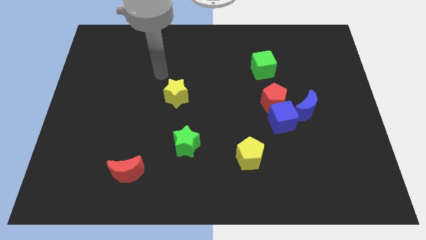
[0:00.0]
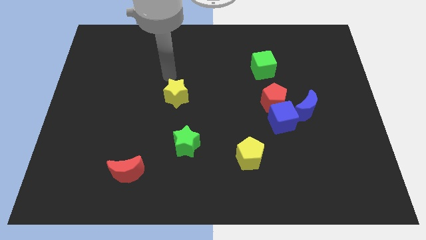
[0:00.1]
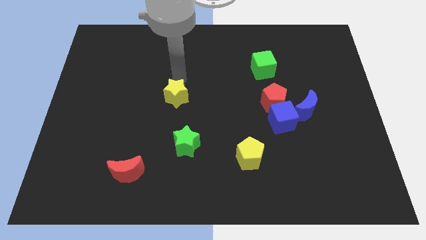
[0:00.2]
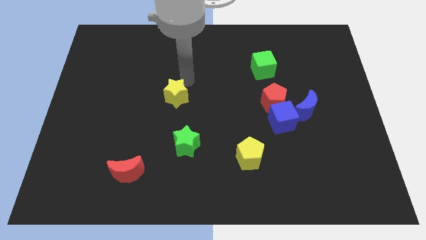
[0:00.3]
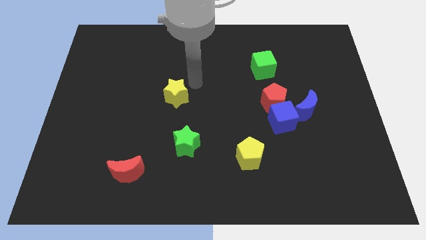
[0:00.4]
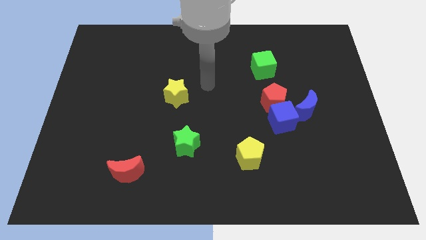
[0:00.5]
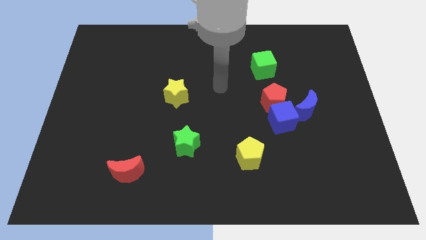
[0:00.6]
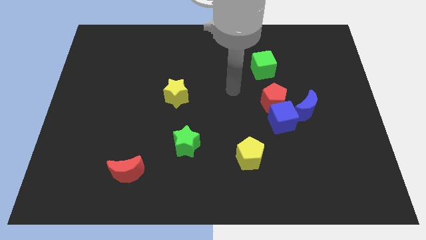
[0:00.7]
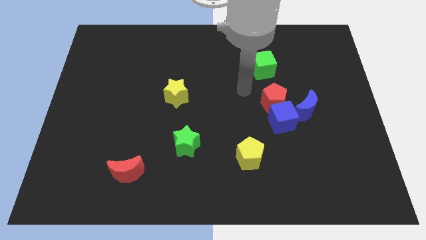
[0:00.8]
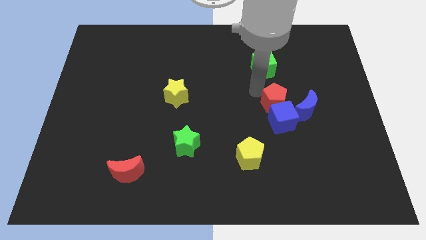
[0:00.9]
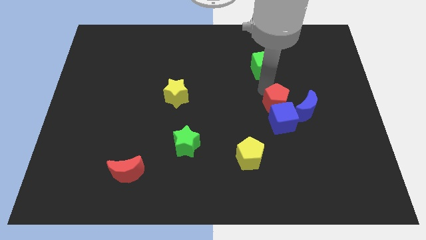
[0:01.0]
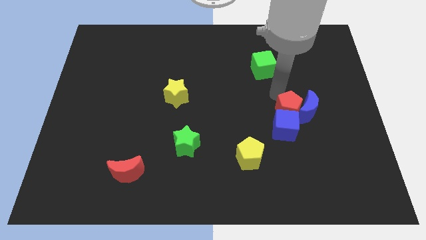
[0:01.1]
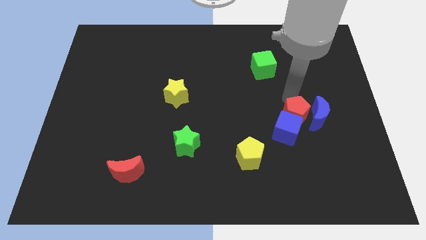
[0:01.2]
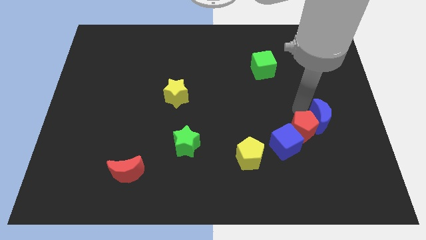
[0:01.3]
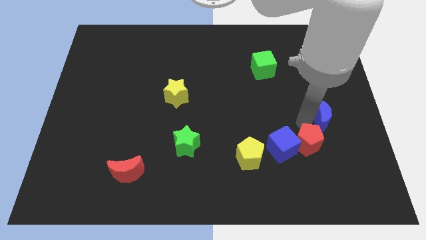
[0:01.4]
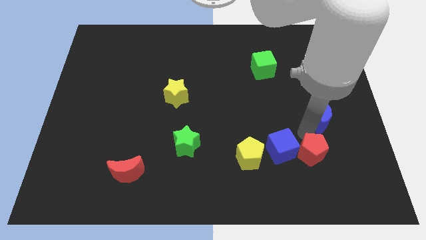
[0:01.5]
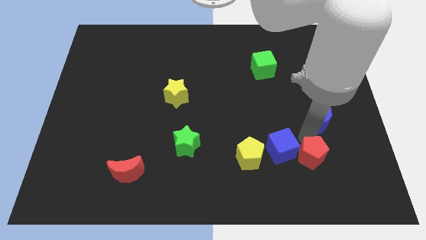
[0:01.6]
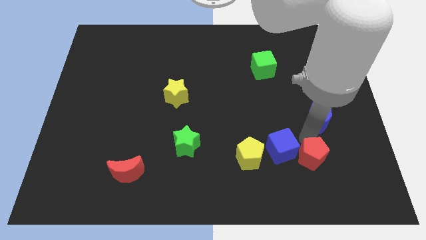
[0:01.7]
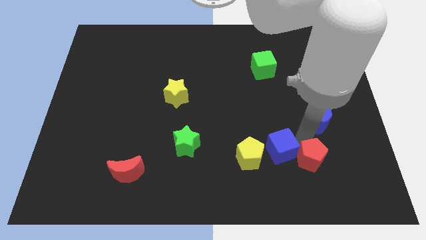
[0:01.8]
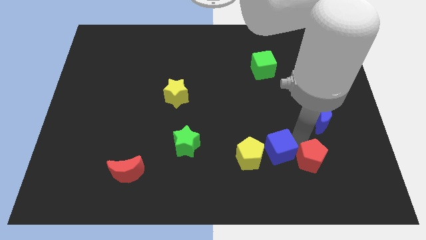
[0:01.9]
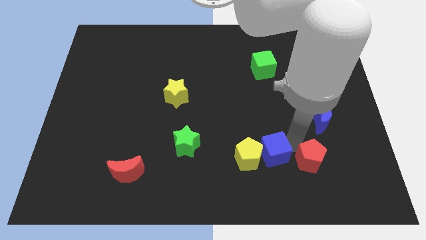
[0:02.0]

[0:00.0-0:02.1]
move the blue cube away from the red pentagon and blue moon

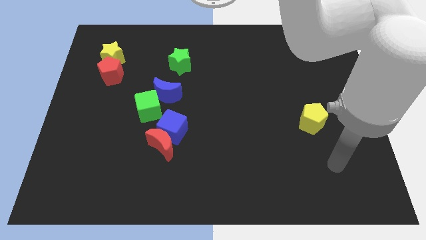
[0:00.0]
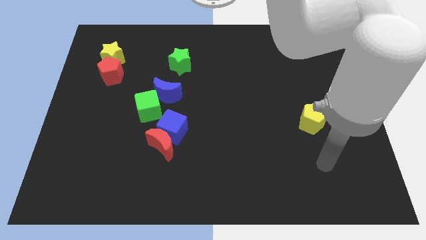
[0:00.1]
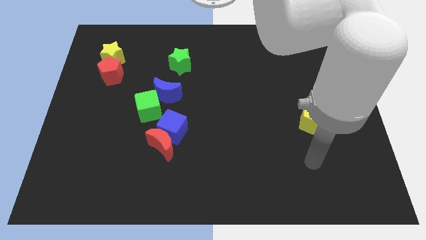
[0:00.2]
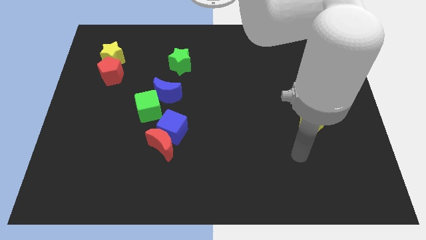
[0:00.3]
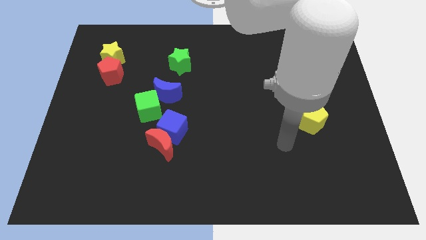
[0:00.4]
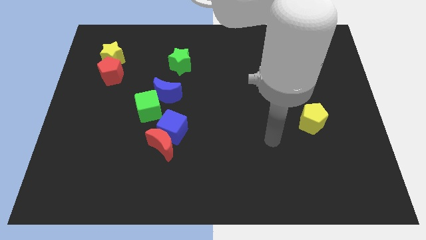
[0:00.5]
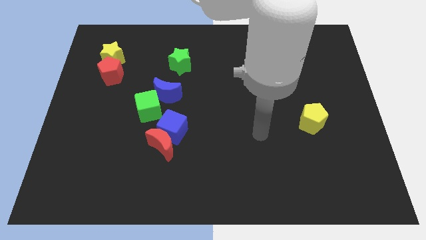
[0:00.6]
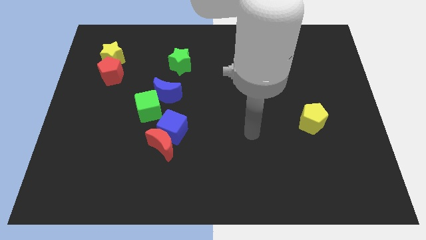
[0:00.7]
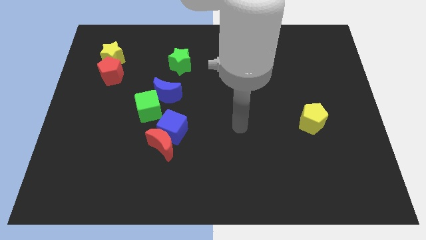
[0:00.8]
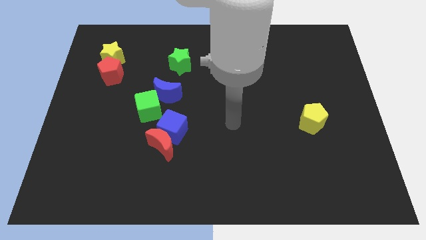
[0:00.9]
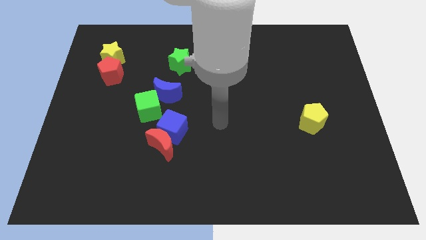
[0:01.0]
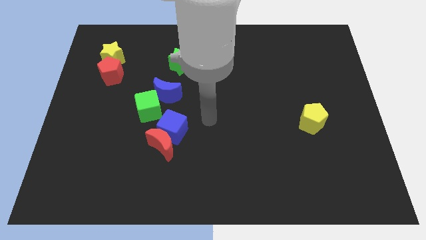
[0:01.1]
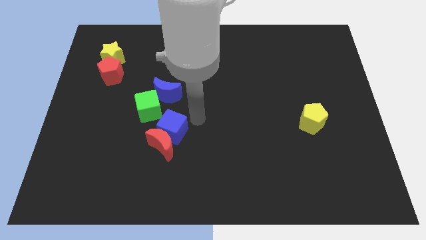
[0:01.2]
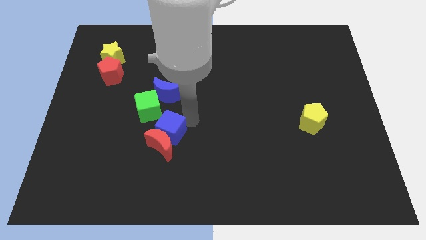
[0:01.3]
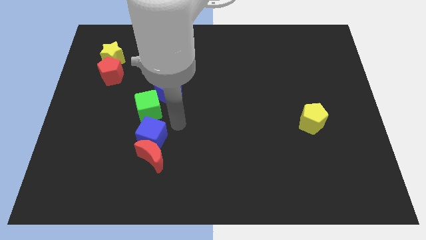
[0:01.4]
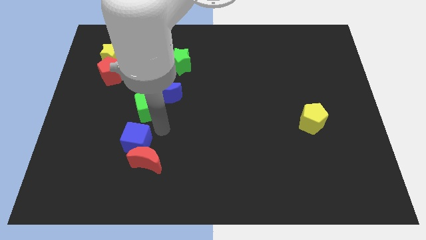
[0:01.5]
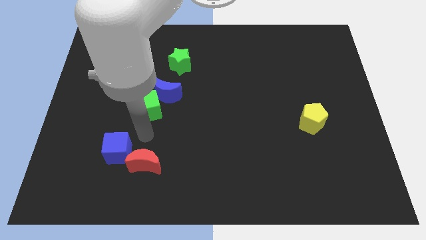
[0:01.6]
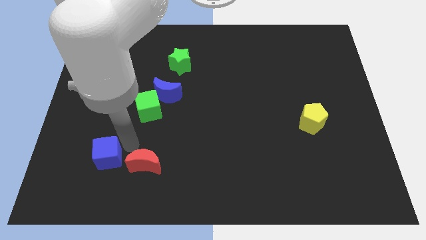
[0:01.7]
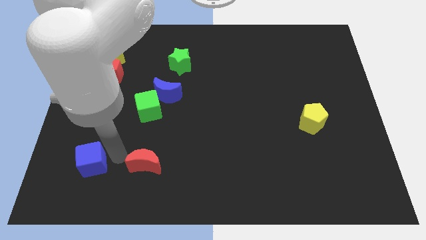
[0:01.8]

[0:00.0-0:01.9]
pull the red moon apart from the blue cube

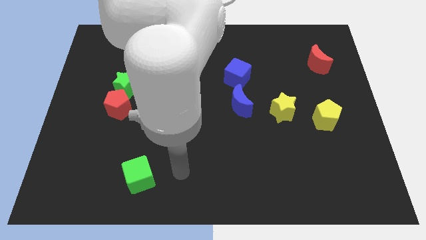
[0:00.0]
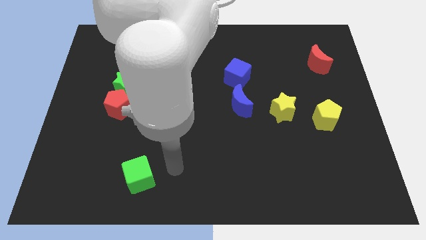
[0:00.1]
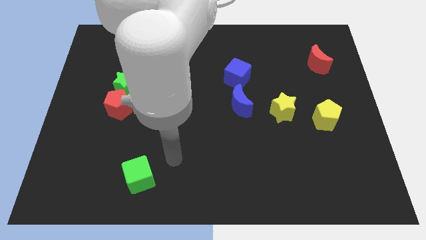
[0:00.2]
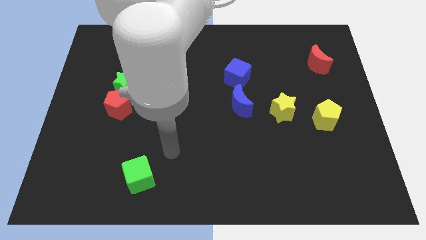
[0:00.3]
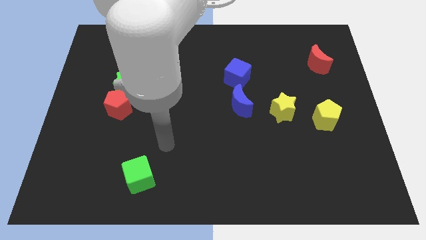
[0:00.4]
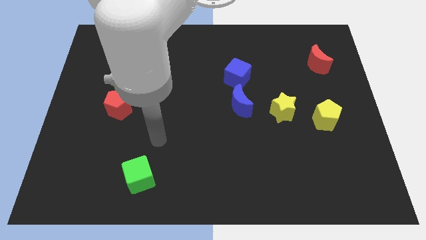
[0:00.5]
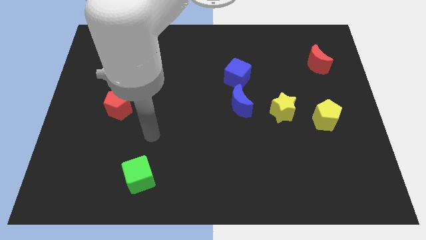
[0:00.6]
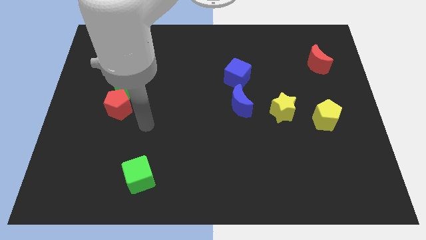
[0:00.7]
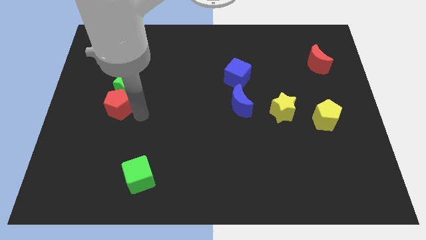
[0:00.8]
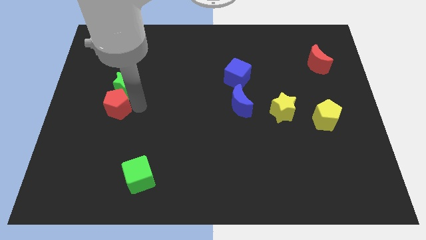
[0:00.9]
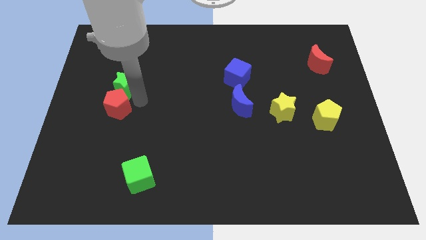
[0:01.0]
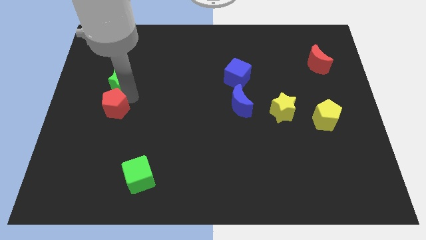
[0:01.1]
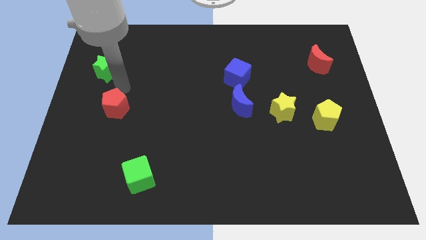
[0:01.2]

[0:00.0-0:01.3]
separate the red pentagon from the green star

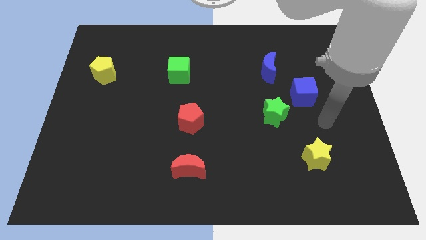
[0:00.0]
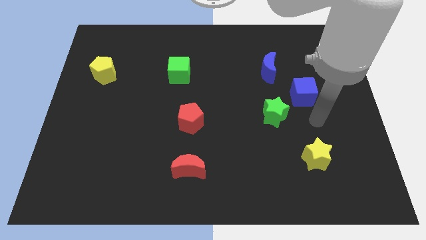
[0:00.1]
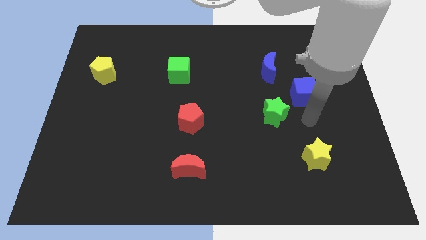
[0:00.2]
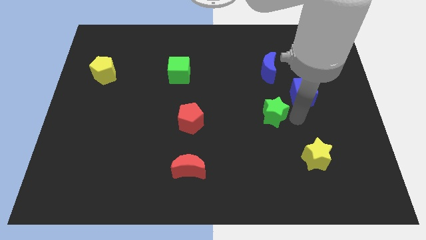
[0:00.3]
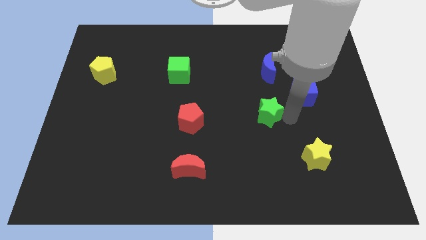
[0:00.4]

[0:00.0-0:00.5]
separate the blue cube from the green star

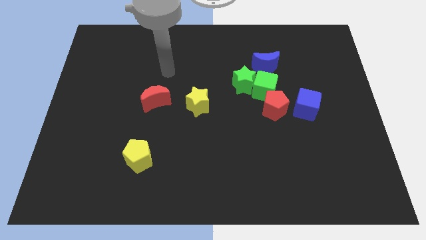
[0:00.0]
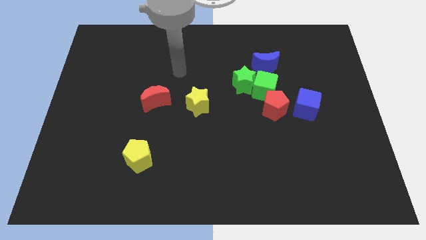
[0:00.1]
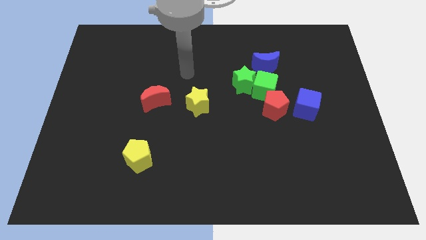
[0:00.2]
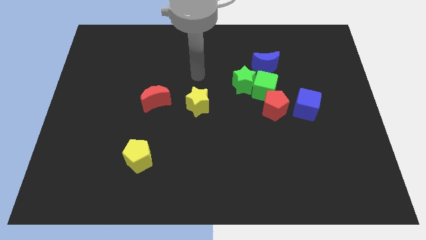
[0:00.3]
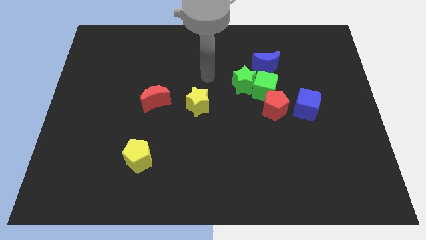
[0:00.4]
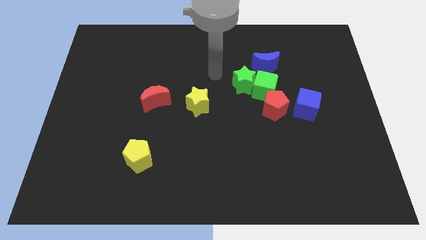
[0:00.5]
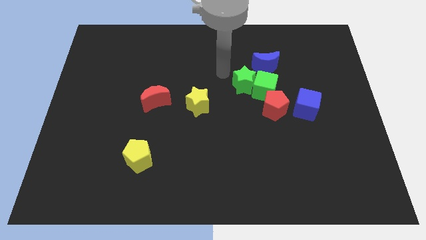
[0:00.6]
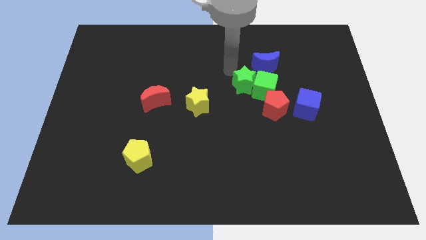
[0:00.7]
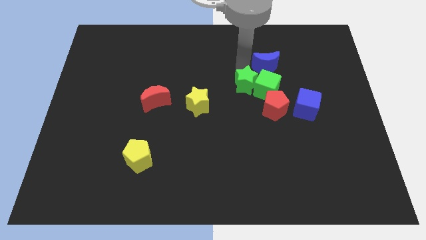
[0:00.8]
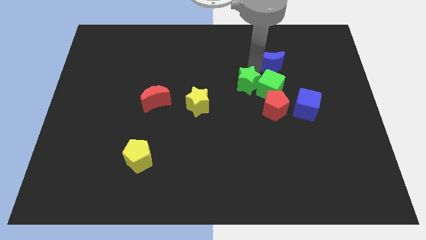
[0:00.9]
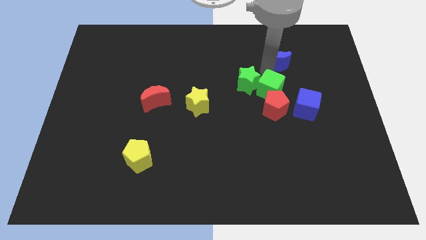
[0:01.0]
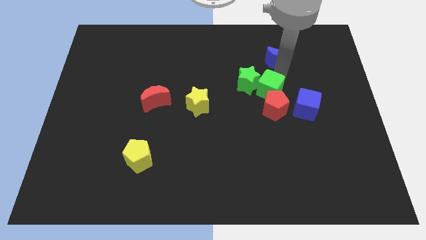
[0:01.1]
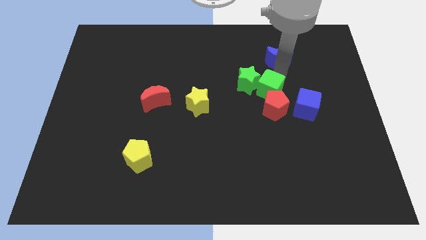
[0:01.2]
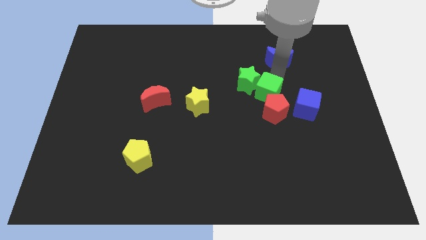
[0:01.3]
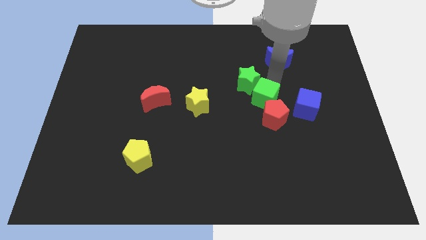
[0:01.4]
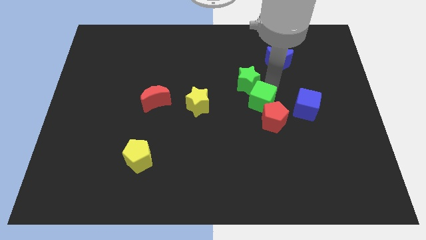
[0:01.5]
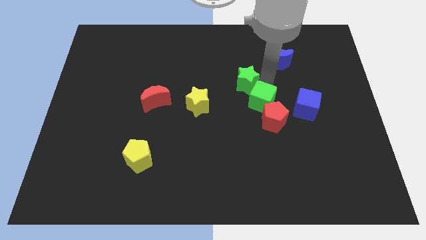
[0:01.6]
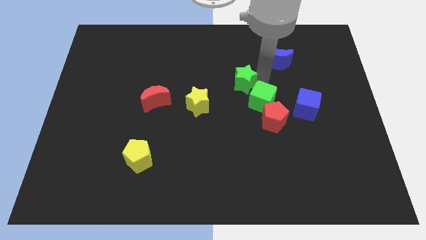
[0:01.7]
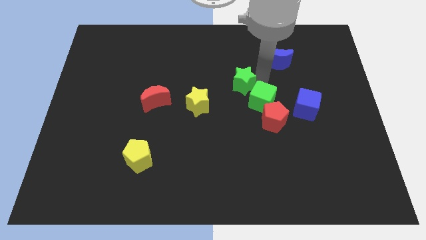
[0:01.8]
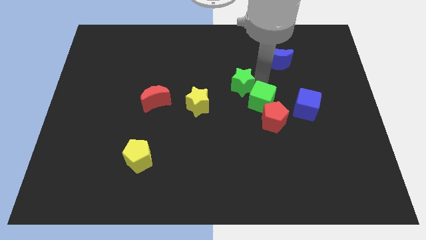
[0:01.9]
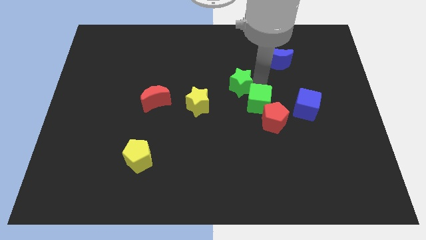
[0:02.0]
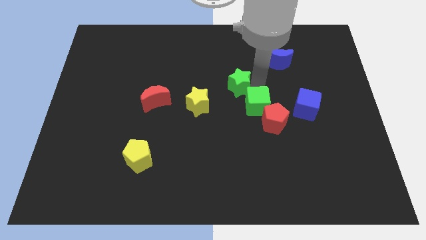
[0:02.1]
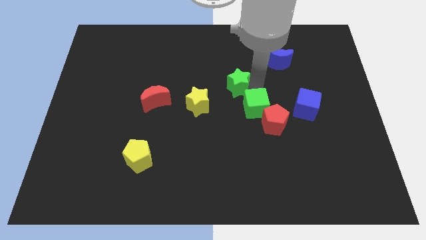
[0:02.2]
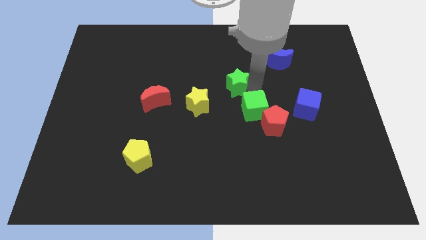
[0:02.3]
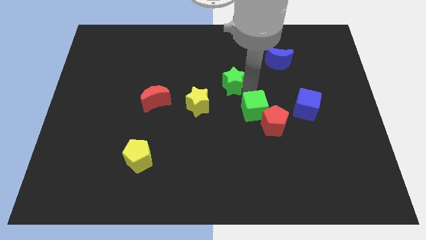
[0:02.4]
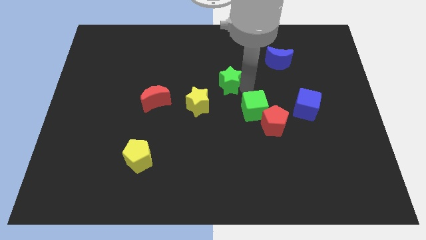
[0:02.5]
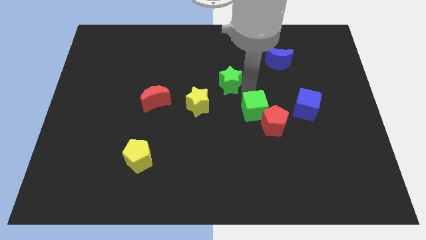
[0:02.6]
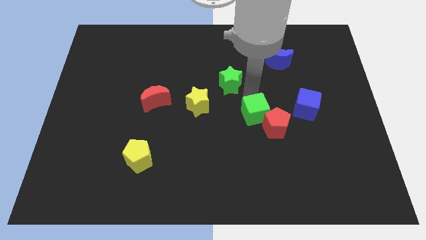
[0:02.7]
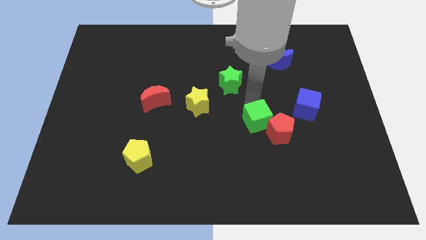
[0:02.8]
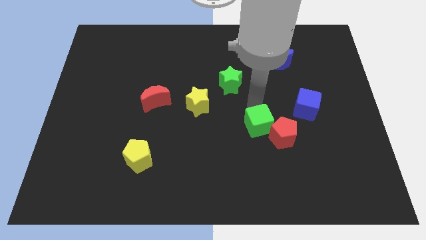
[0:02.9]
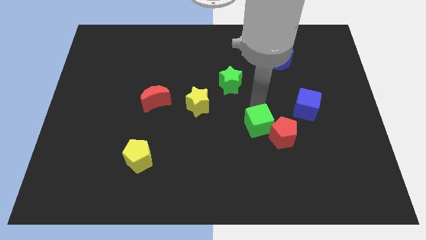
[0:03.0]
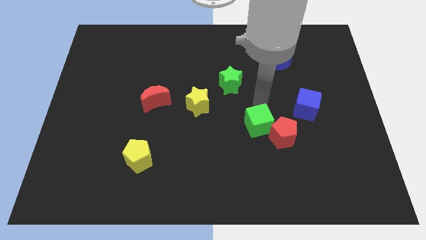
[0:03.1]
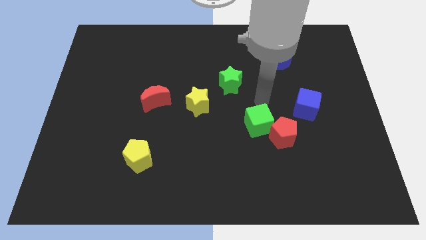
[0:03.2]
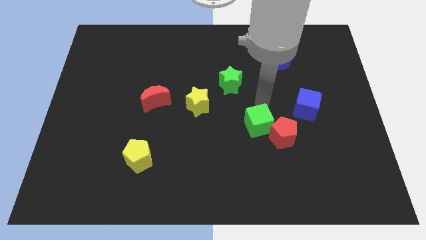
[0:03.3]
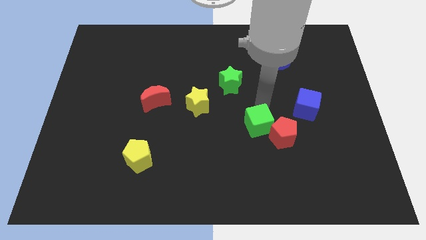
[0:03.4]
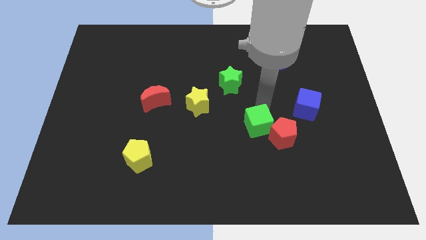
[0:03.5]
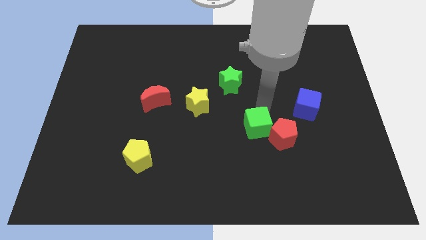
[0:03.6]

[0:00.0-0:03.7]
separate the green cube from the group
